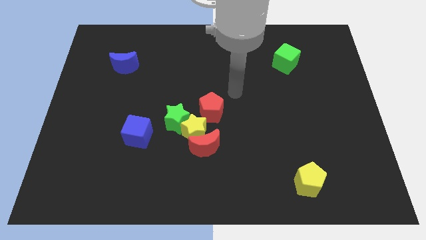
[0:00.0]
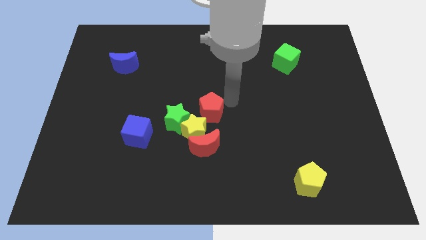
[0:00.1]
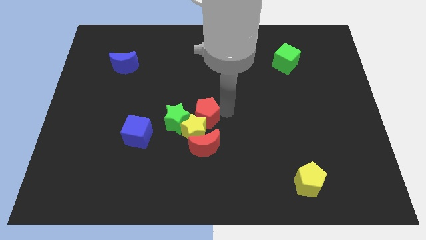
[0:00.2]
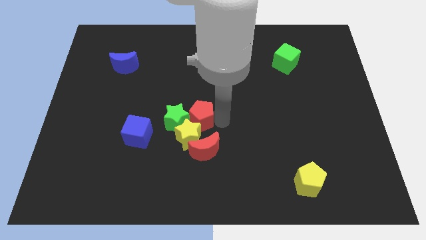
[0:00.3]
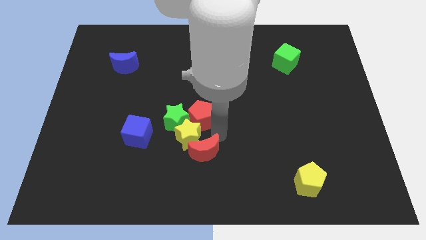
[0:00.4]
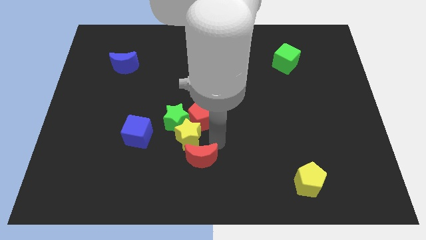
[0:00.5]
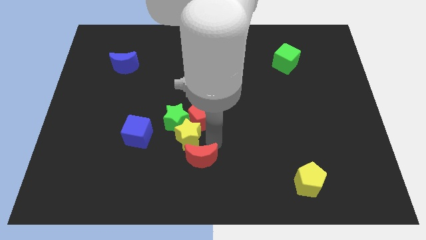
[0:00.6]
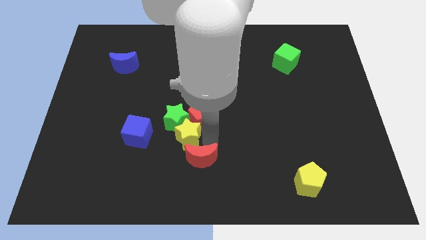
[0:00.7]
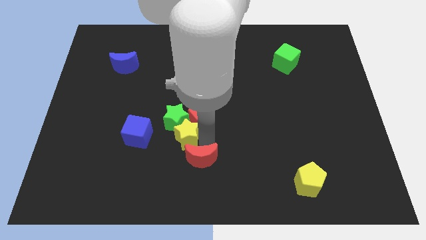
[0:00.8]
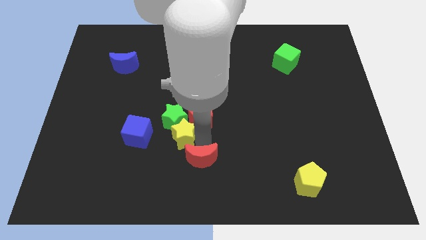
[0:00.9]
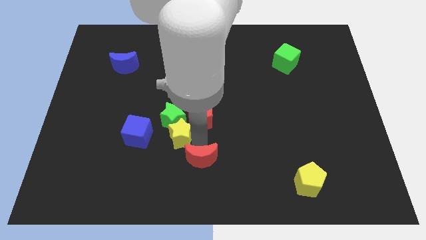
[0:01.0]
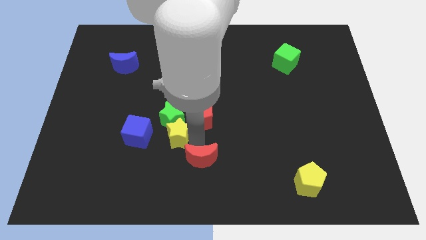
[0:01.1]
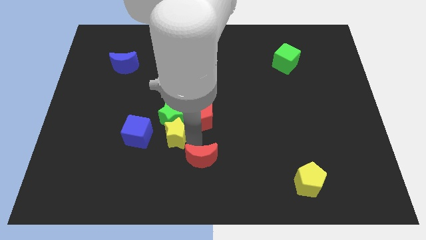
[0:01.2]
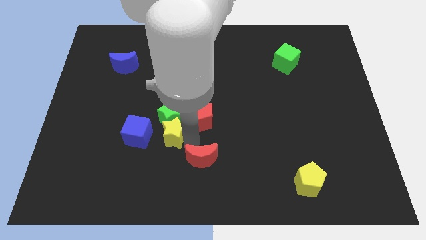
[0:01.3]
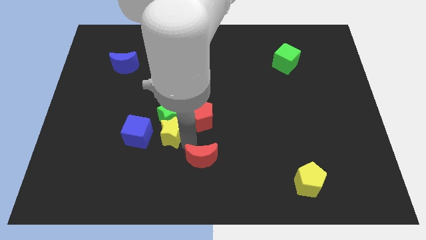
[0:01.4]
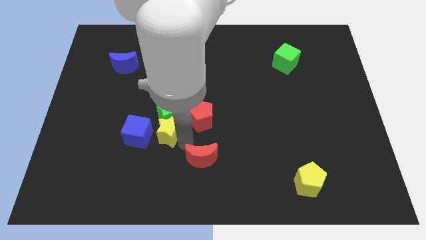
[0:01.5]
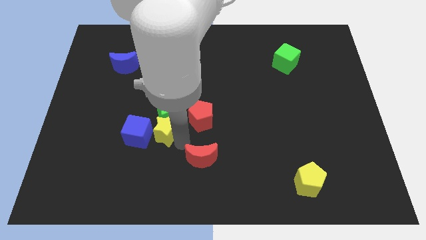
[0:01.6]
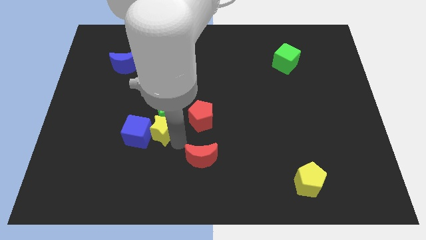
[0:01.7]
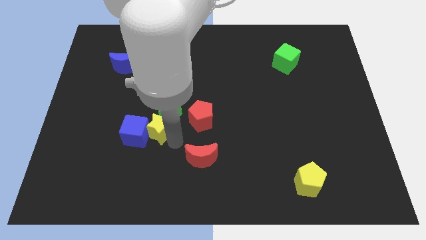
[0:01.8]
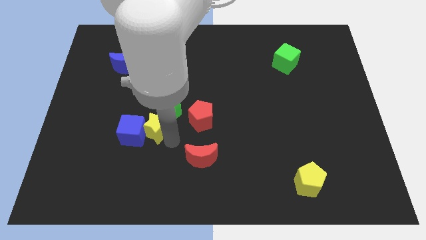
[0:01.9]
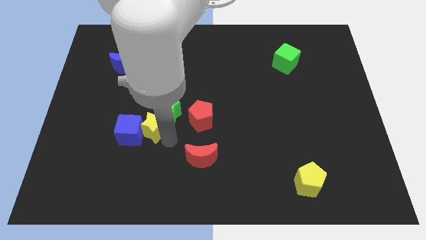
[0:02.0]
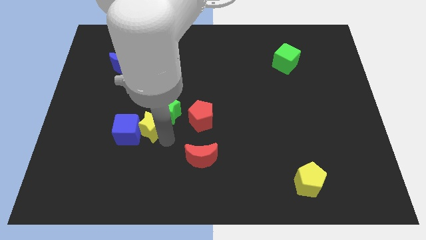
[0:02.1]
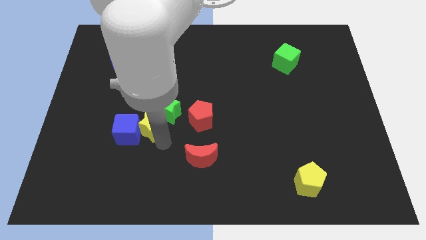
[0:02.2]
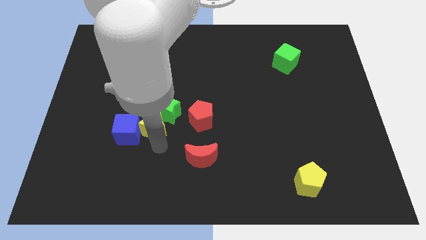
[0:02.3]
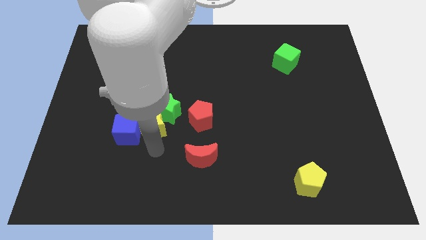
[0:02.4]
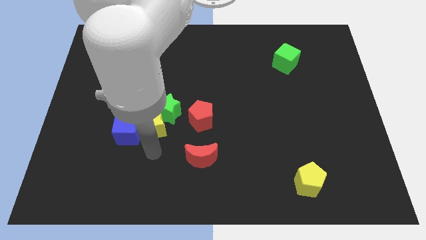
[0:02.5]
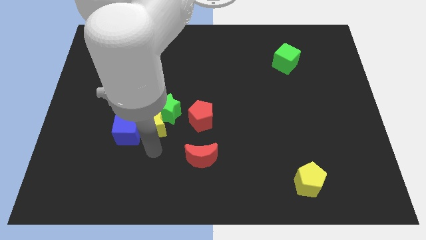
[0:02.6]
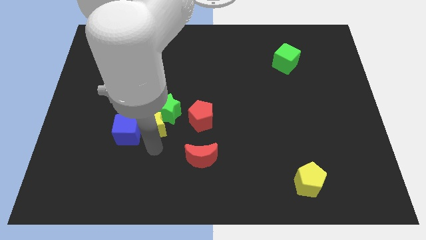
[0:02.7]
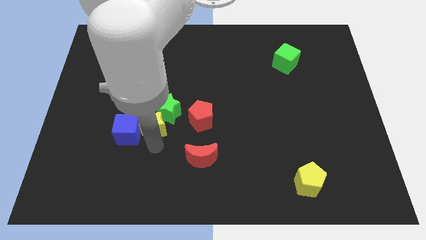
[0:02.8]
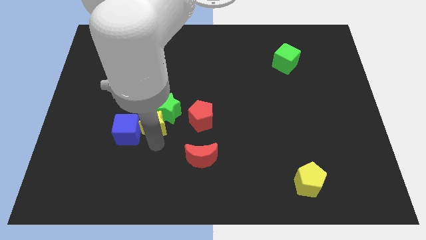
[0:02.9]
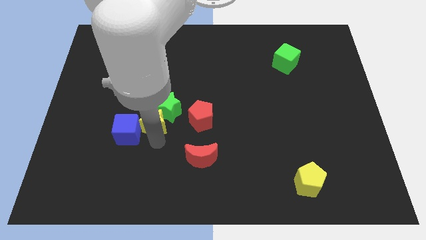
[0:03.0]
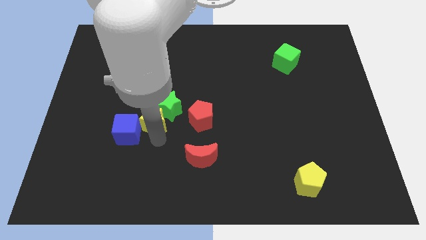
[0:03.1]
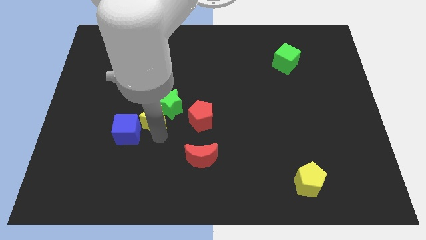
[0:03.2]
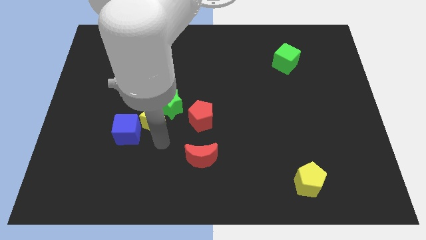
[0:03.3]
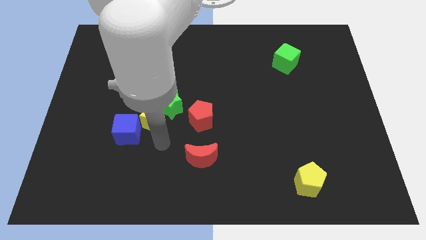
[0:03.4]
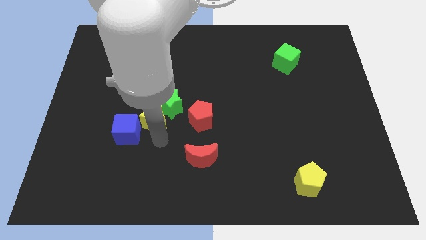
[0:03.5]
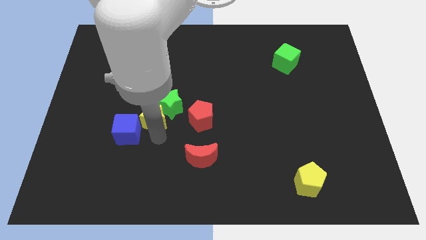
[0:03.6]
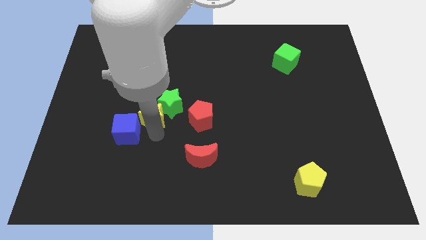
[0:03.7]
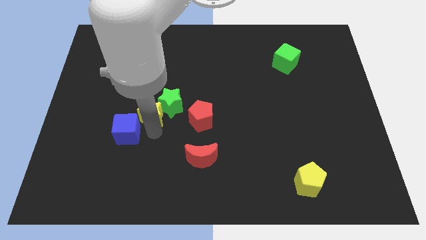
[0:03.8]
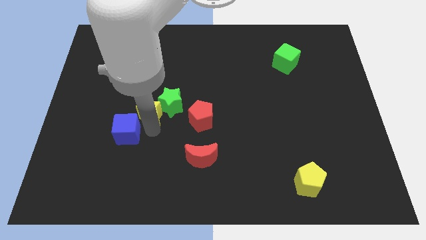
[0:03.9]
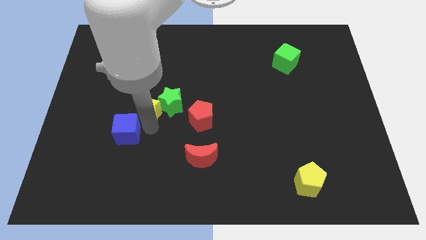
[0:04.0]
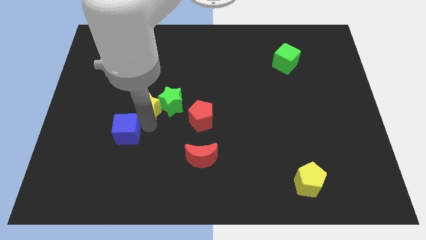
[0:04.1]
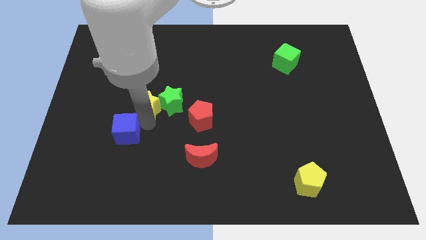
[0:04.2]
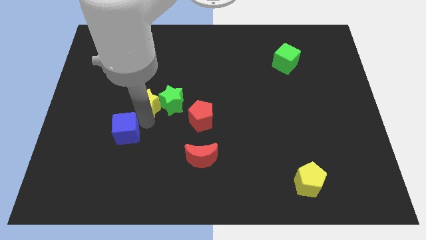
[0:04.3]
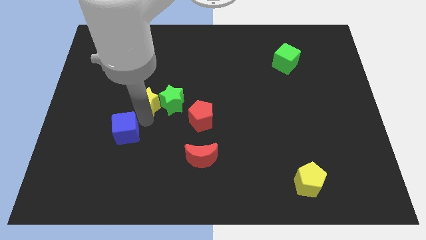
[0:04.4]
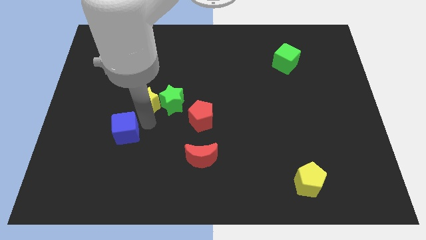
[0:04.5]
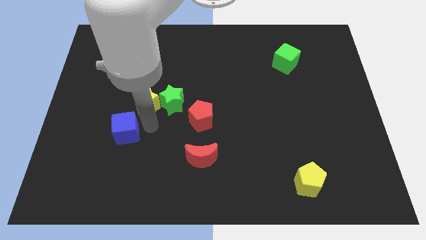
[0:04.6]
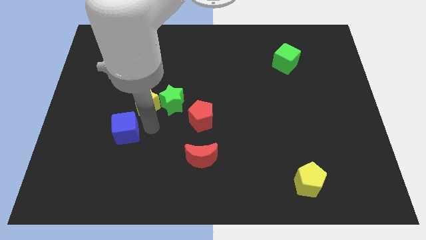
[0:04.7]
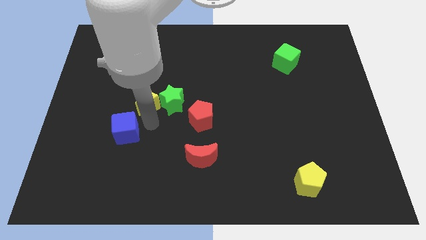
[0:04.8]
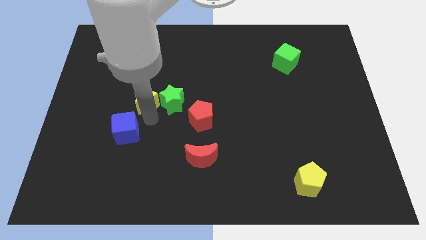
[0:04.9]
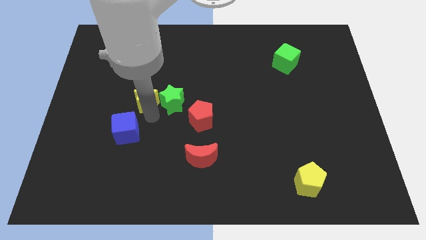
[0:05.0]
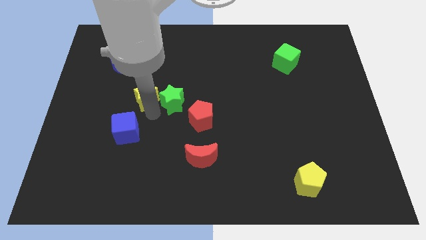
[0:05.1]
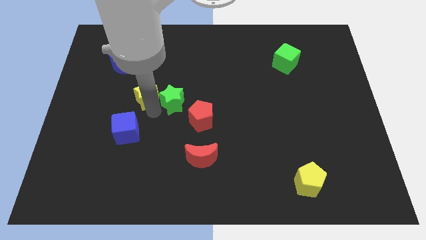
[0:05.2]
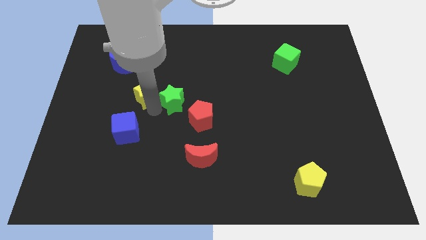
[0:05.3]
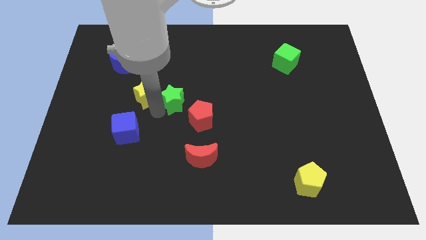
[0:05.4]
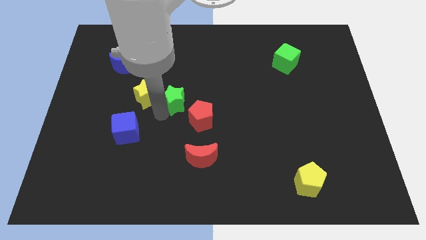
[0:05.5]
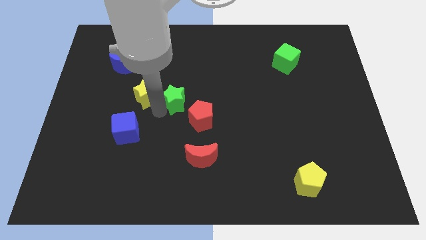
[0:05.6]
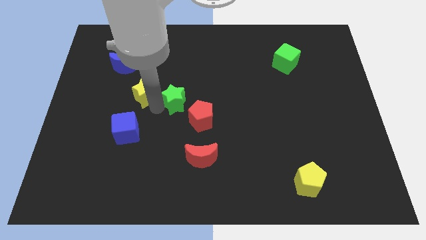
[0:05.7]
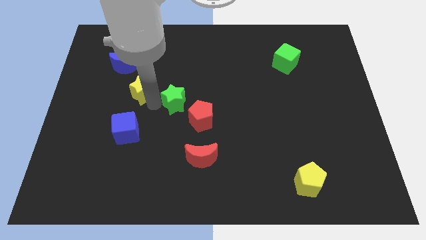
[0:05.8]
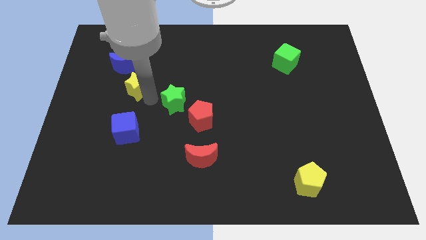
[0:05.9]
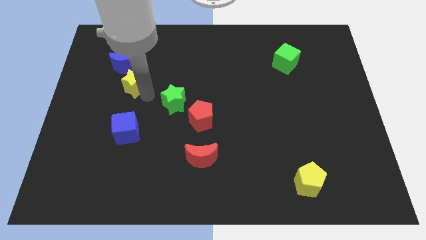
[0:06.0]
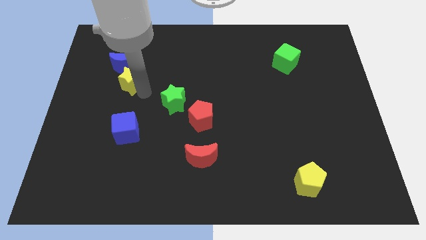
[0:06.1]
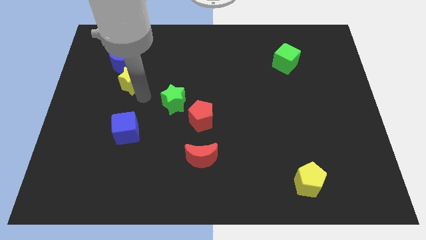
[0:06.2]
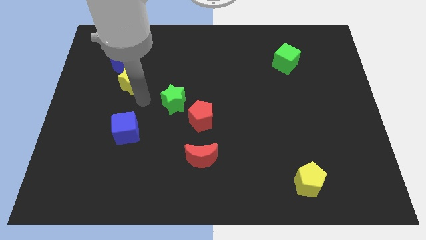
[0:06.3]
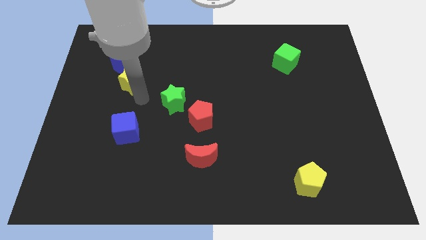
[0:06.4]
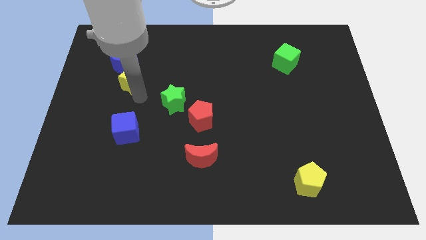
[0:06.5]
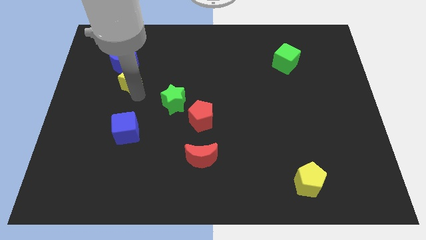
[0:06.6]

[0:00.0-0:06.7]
slide the yellow star to the blue moon

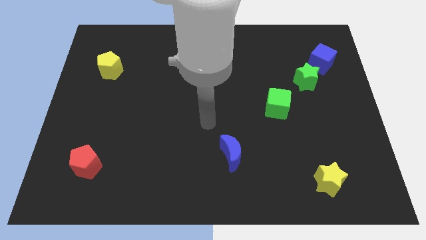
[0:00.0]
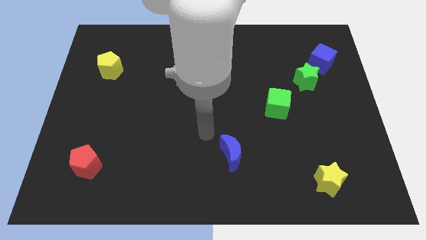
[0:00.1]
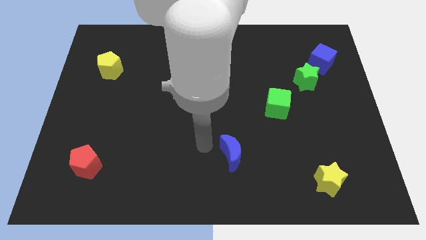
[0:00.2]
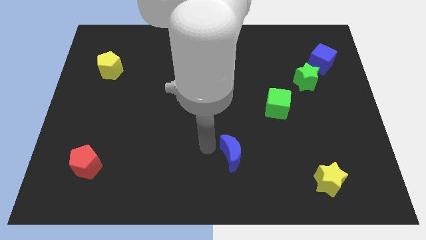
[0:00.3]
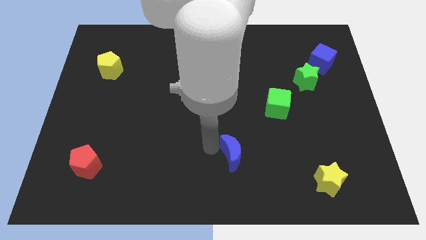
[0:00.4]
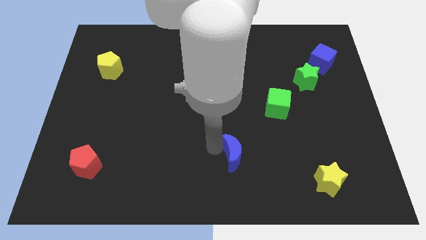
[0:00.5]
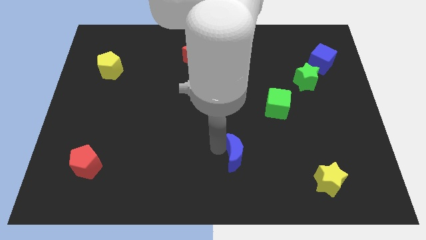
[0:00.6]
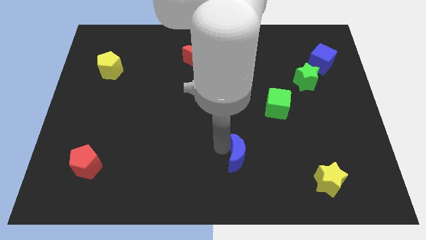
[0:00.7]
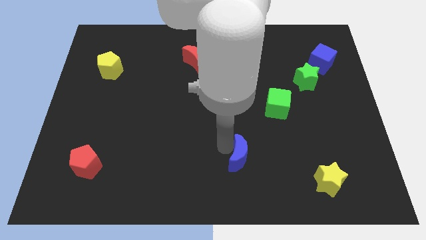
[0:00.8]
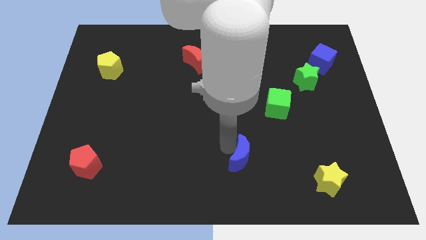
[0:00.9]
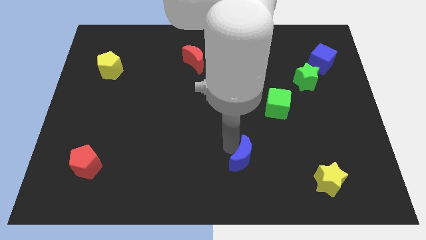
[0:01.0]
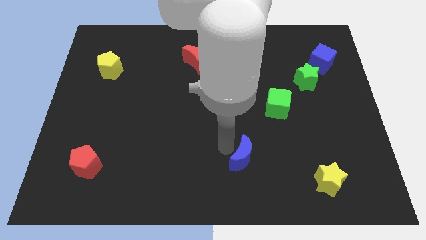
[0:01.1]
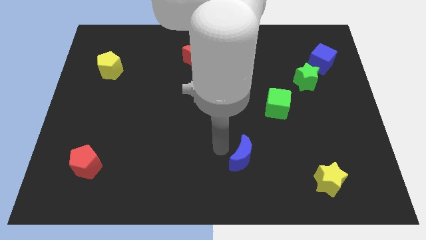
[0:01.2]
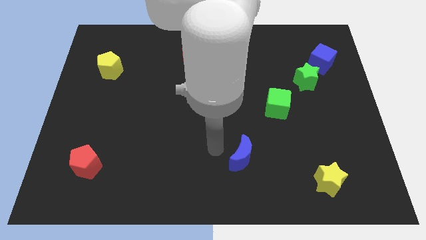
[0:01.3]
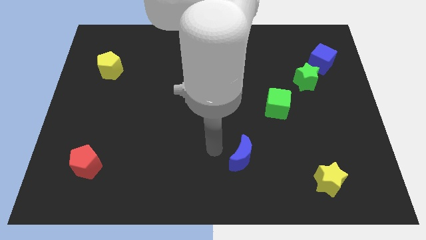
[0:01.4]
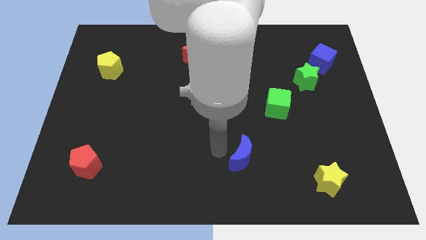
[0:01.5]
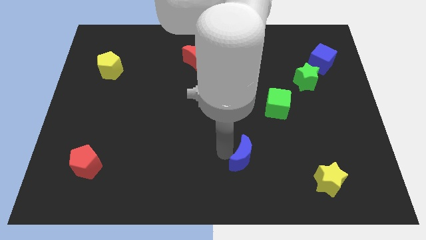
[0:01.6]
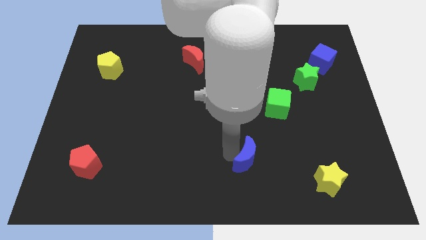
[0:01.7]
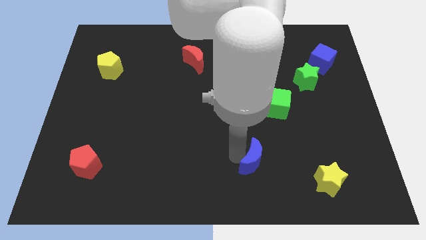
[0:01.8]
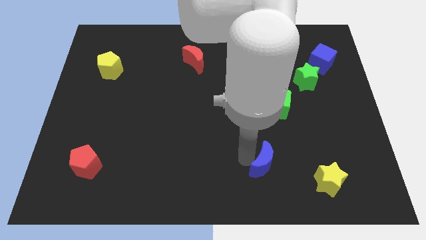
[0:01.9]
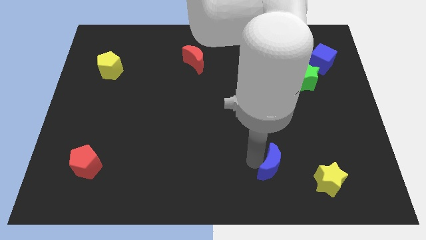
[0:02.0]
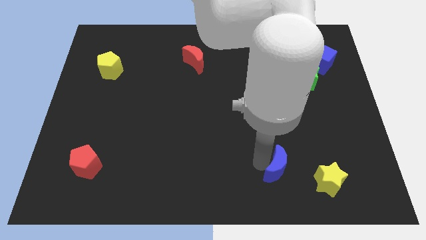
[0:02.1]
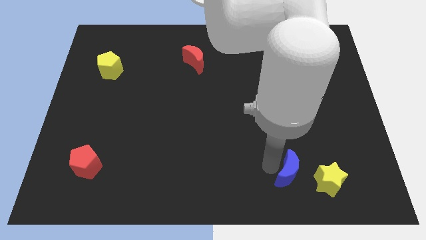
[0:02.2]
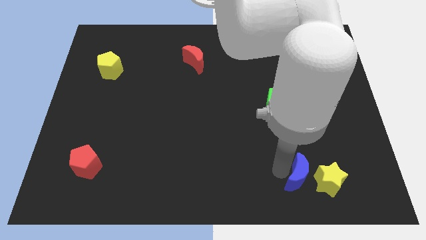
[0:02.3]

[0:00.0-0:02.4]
move the blue moon to the yellow star
